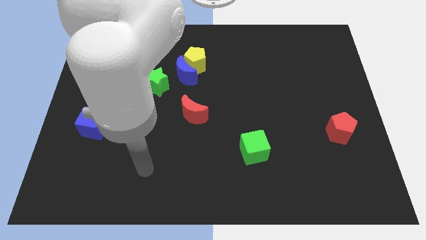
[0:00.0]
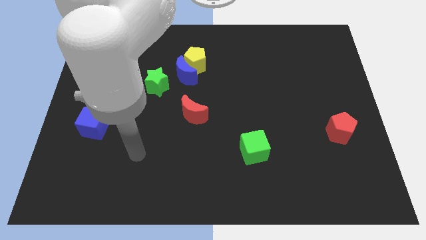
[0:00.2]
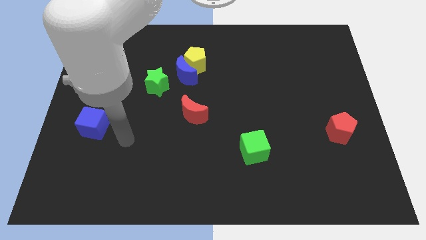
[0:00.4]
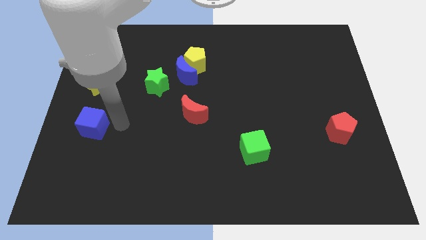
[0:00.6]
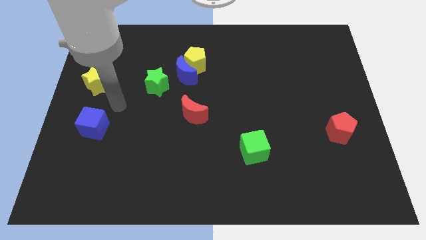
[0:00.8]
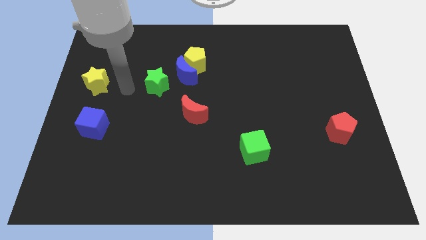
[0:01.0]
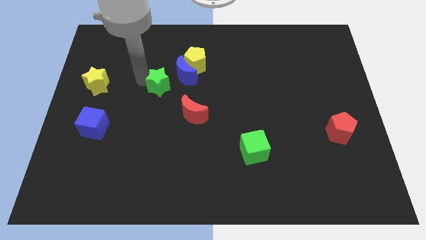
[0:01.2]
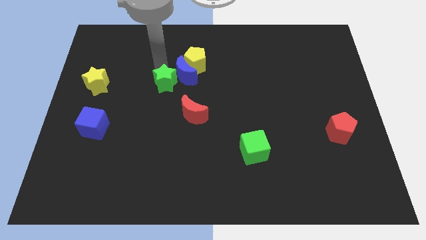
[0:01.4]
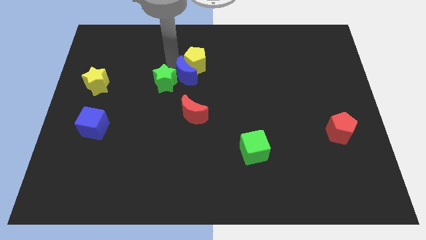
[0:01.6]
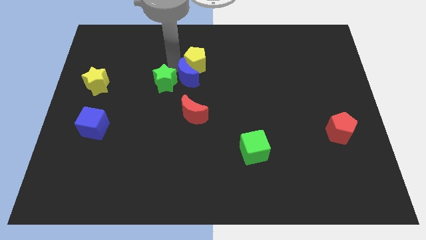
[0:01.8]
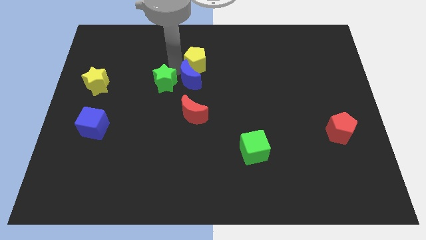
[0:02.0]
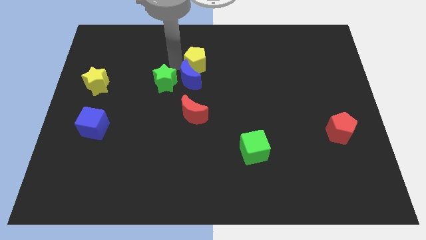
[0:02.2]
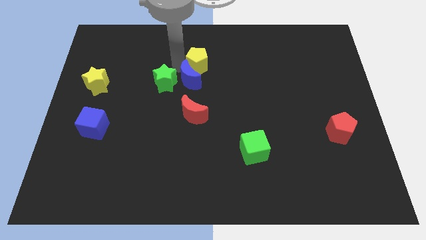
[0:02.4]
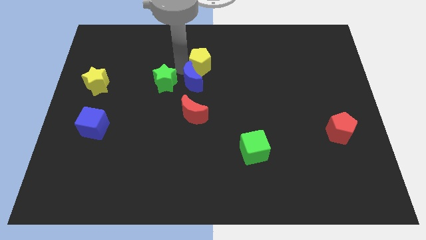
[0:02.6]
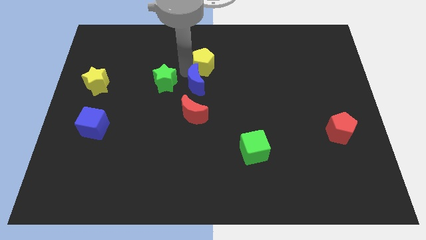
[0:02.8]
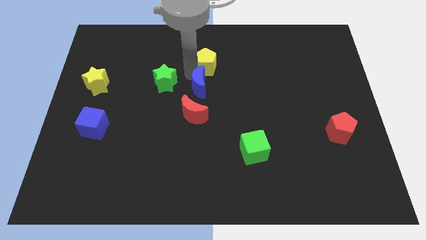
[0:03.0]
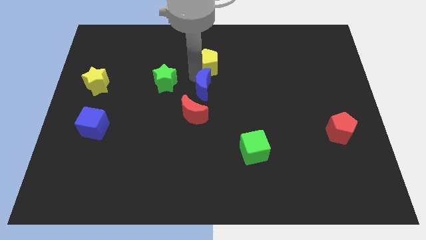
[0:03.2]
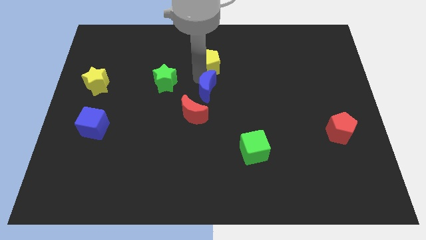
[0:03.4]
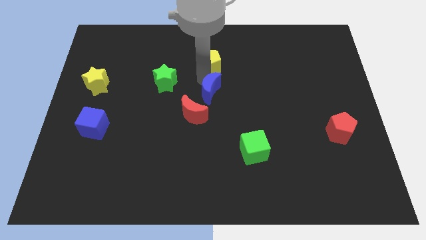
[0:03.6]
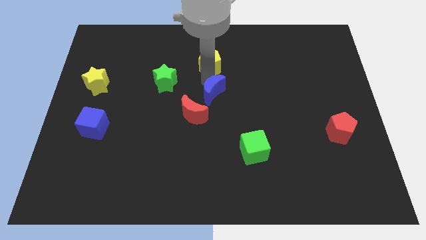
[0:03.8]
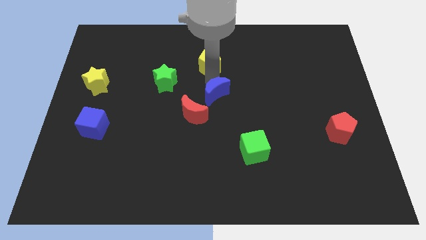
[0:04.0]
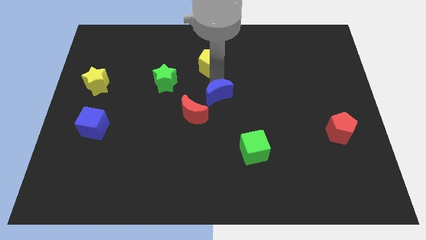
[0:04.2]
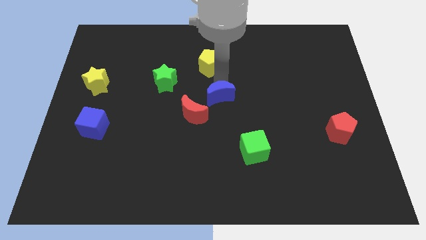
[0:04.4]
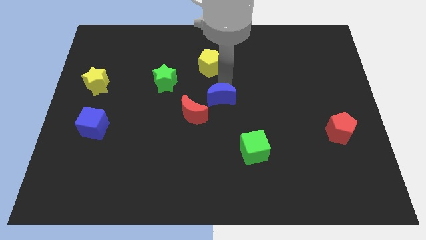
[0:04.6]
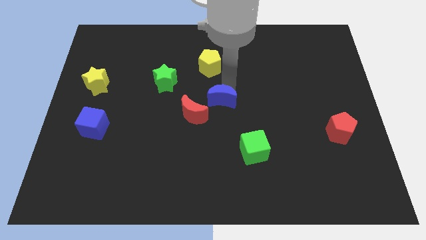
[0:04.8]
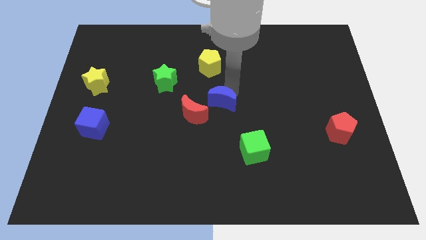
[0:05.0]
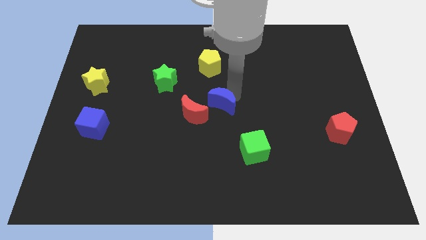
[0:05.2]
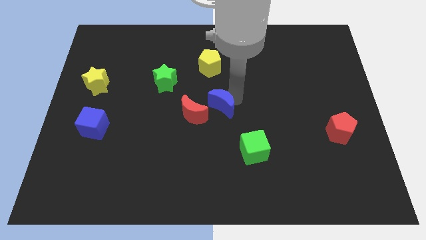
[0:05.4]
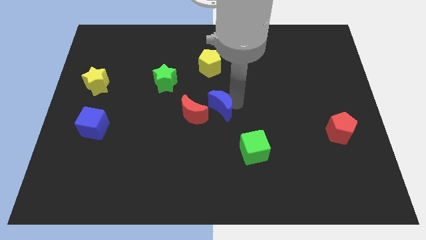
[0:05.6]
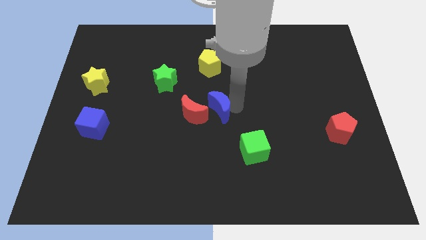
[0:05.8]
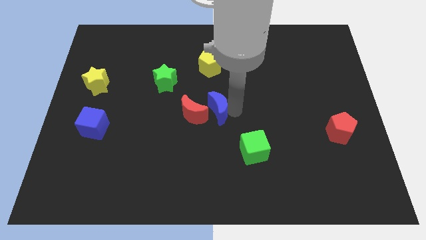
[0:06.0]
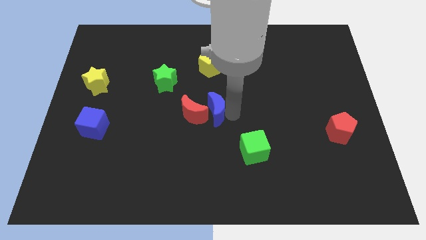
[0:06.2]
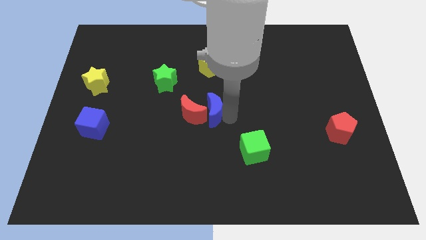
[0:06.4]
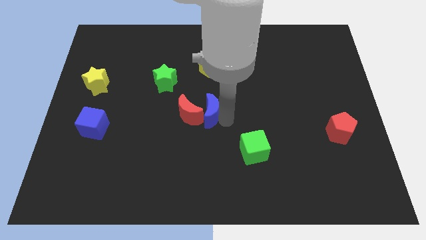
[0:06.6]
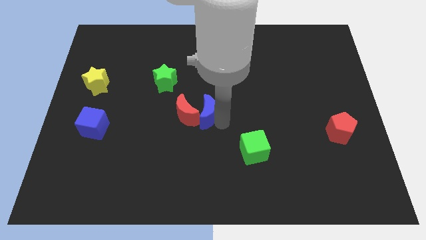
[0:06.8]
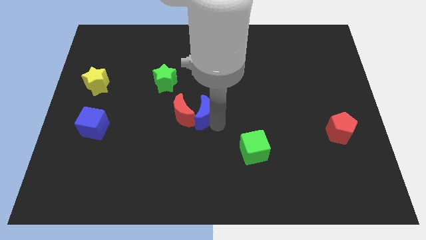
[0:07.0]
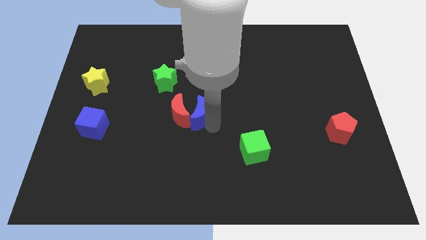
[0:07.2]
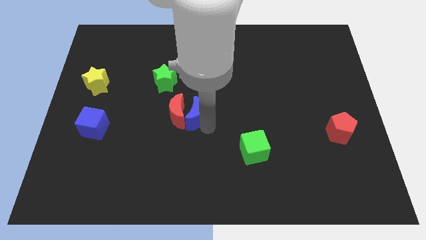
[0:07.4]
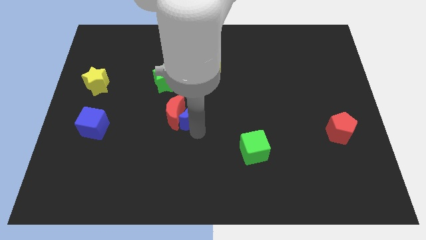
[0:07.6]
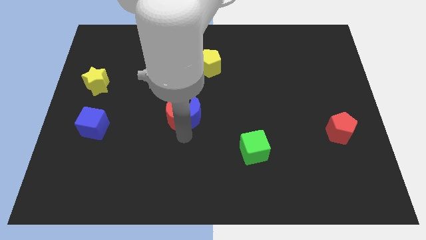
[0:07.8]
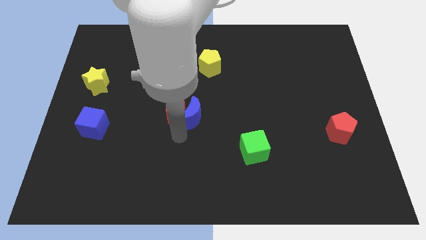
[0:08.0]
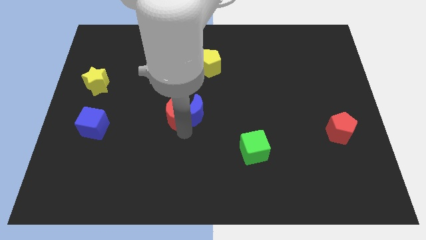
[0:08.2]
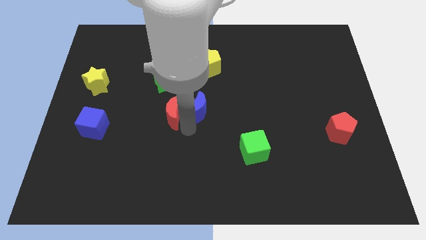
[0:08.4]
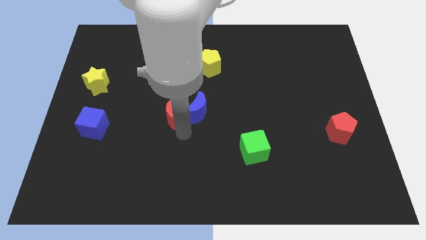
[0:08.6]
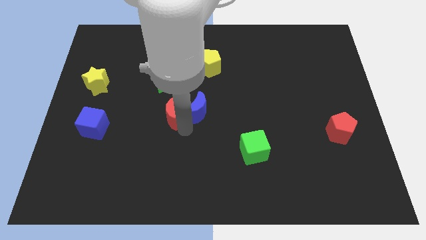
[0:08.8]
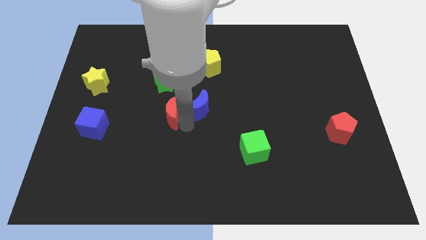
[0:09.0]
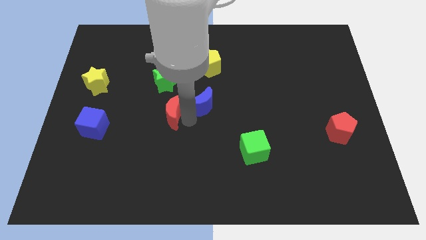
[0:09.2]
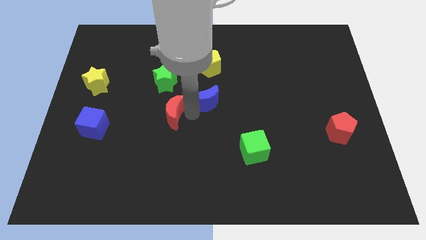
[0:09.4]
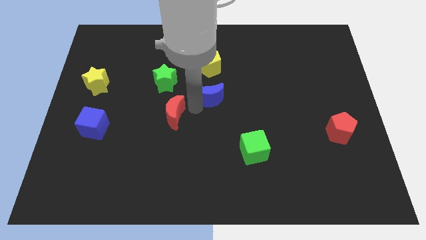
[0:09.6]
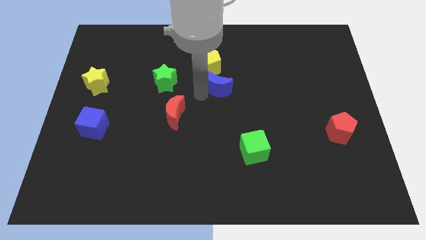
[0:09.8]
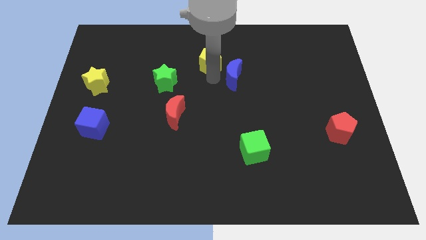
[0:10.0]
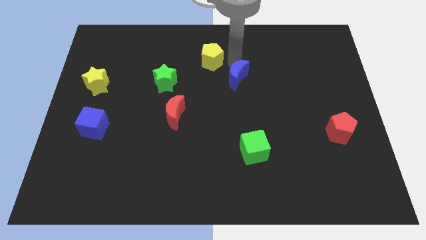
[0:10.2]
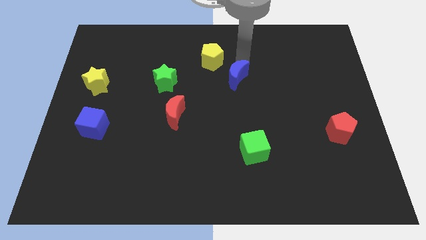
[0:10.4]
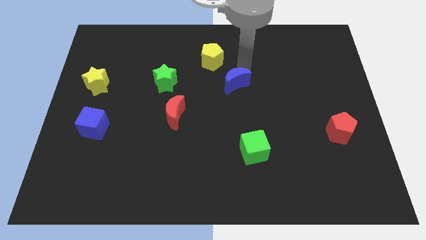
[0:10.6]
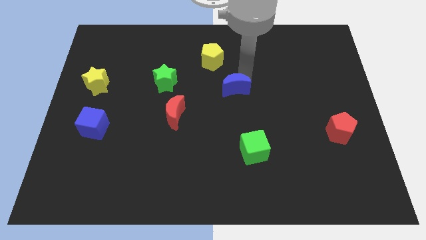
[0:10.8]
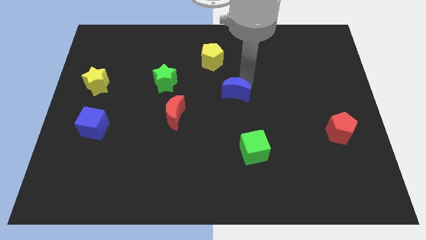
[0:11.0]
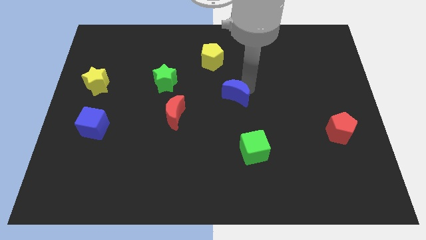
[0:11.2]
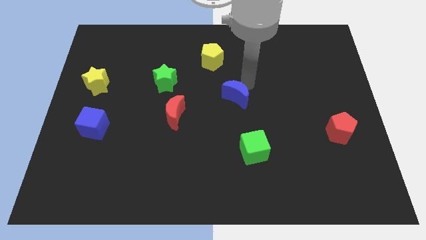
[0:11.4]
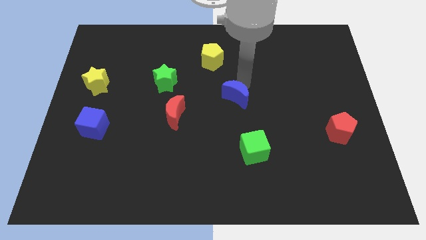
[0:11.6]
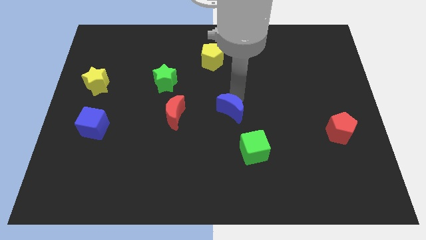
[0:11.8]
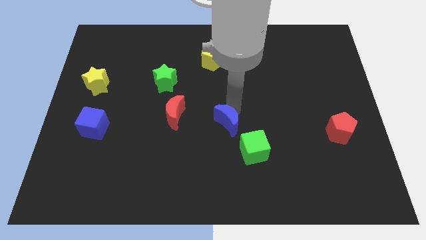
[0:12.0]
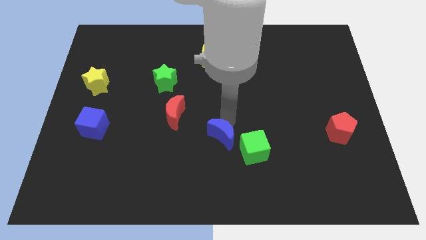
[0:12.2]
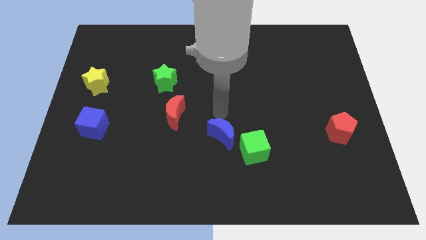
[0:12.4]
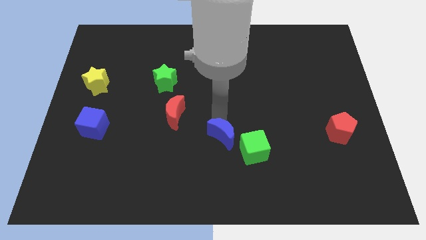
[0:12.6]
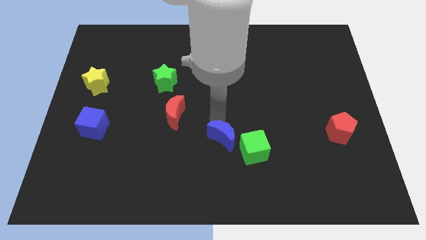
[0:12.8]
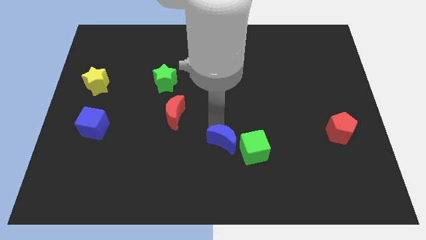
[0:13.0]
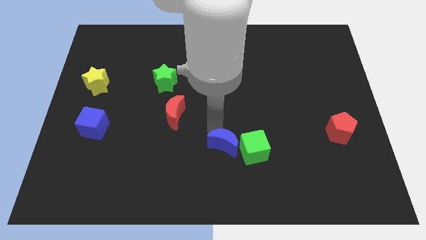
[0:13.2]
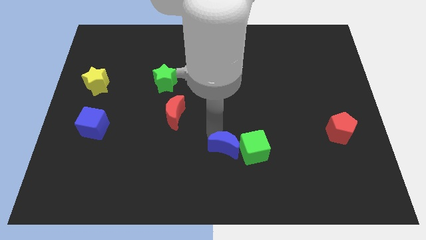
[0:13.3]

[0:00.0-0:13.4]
push the blue moon to the bottom left of the green cube

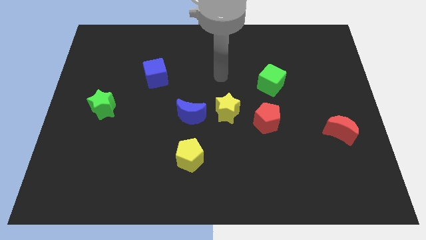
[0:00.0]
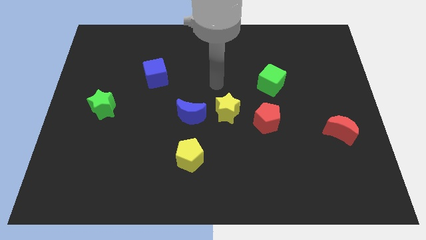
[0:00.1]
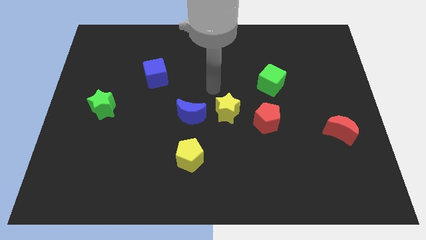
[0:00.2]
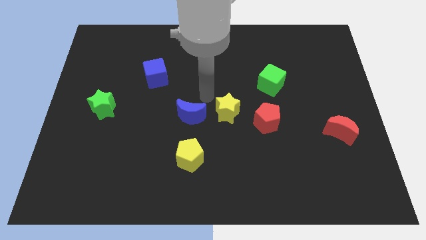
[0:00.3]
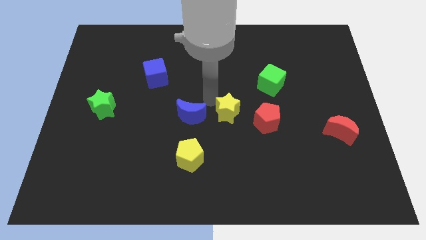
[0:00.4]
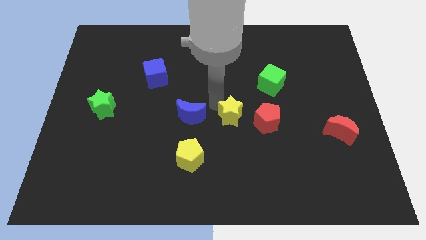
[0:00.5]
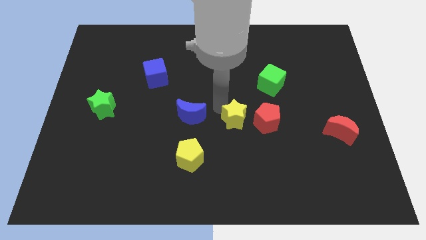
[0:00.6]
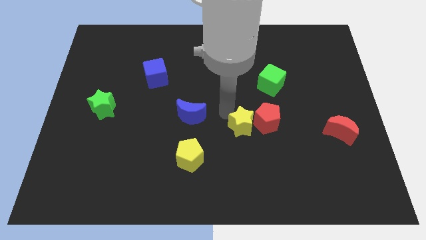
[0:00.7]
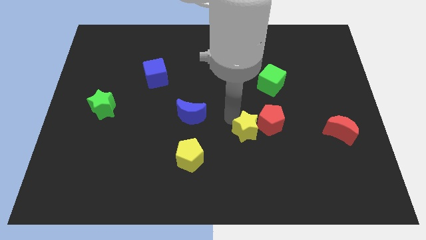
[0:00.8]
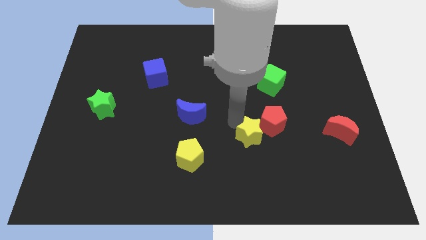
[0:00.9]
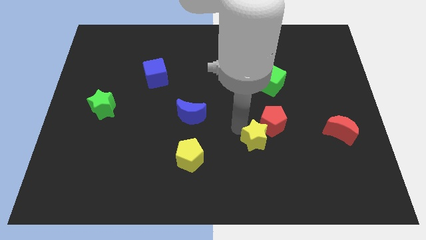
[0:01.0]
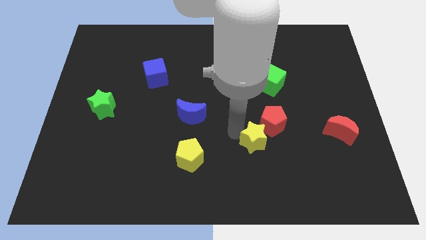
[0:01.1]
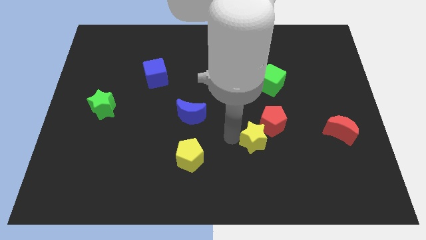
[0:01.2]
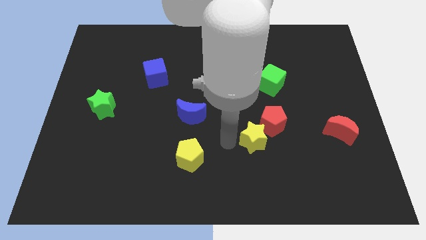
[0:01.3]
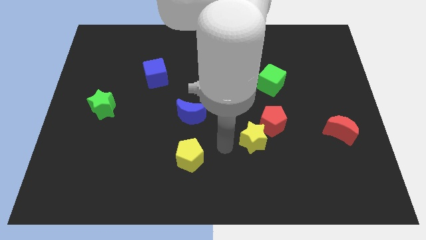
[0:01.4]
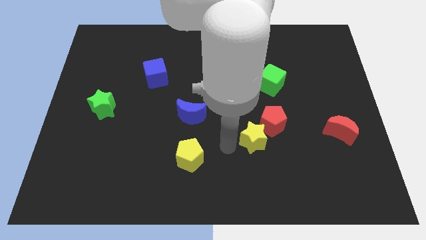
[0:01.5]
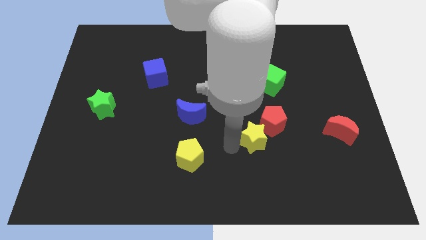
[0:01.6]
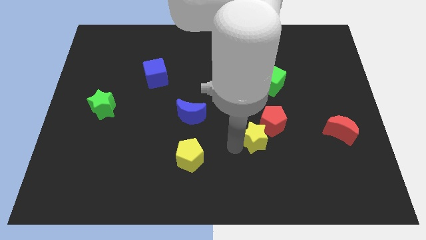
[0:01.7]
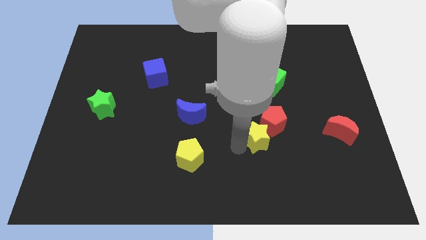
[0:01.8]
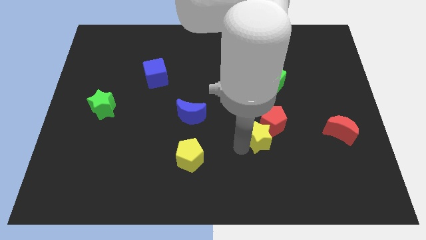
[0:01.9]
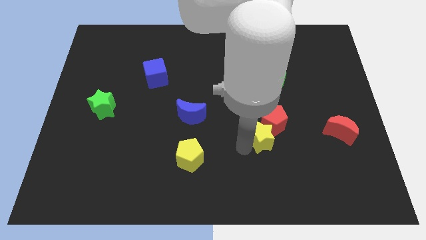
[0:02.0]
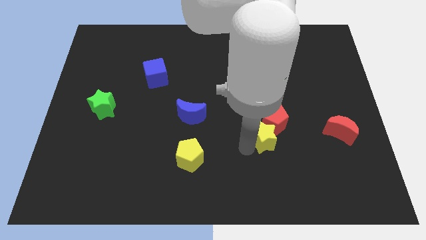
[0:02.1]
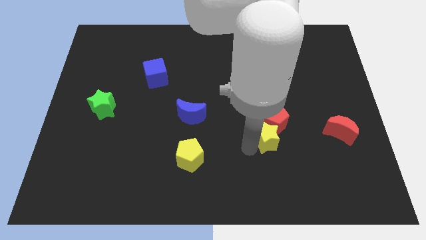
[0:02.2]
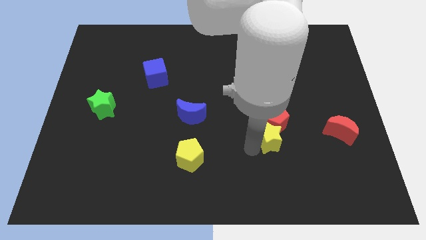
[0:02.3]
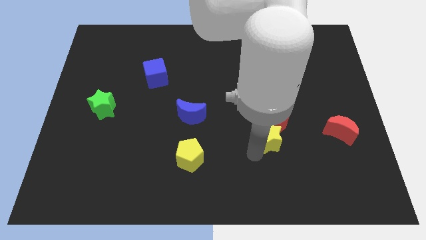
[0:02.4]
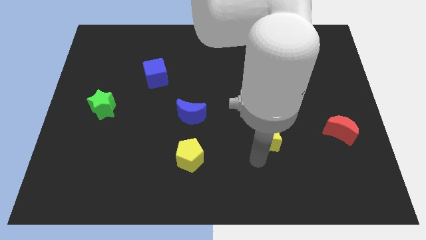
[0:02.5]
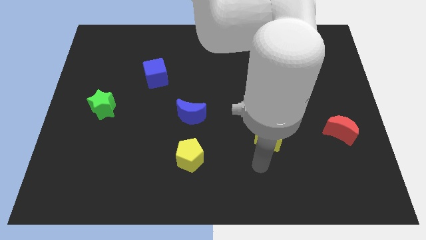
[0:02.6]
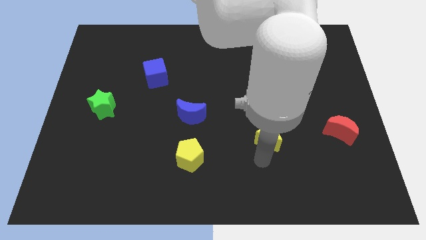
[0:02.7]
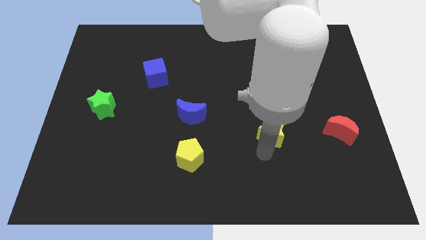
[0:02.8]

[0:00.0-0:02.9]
move the yellow star to the bottom of the green cube
